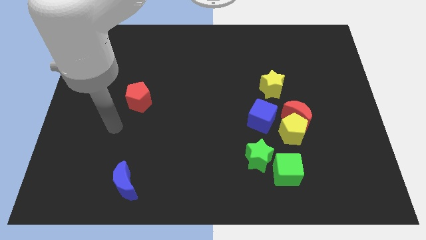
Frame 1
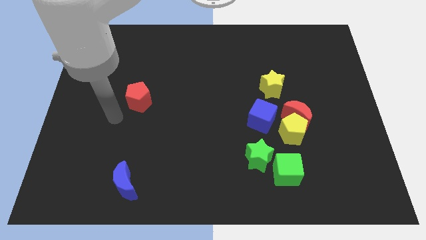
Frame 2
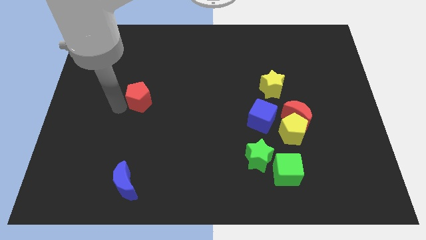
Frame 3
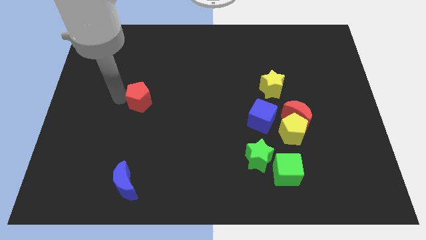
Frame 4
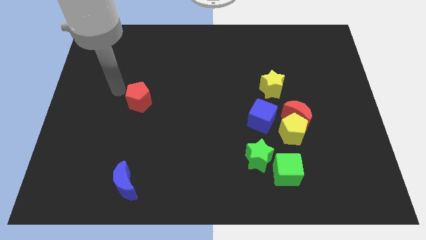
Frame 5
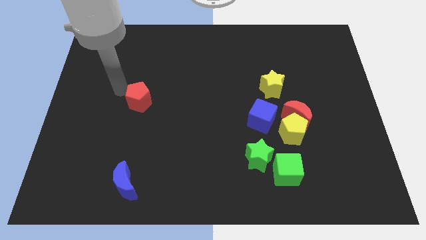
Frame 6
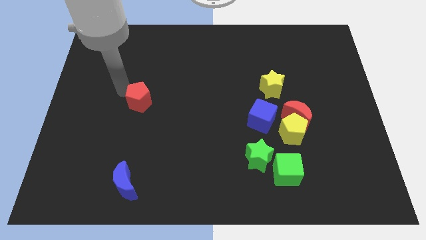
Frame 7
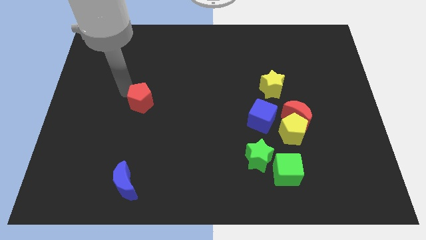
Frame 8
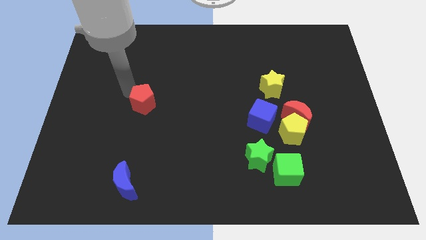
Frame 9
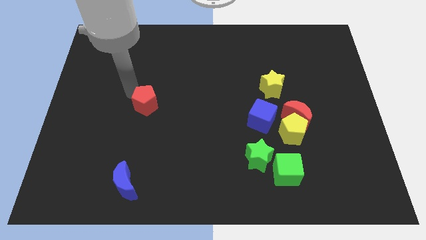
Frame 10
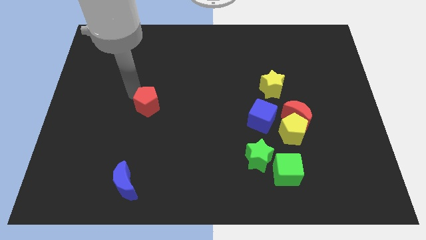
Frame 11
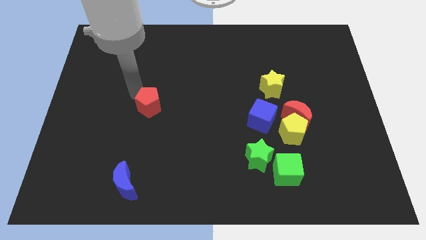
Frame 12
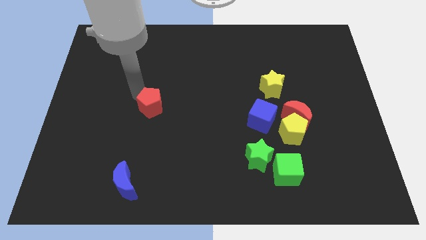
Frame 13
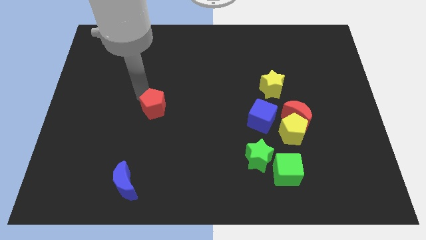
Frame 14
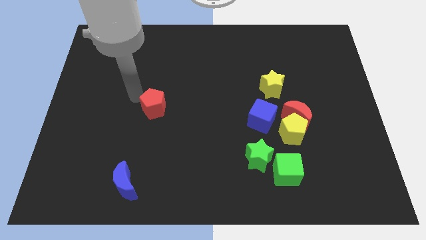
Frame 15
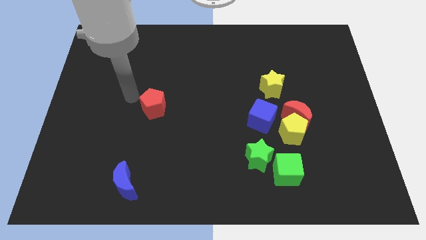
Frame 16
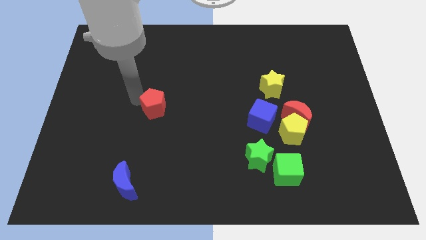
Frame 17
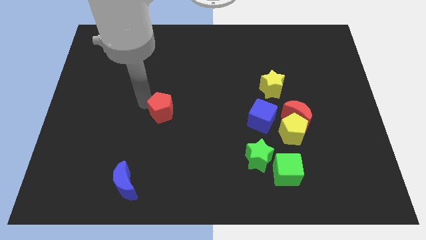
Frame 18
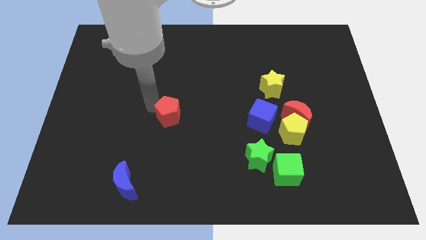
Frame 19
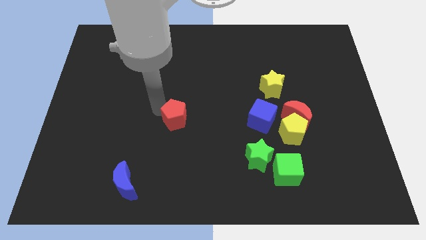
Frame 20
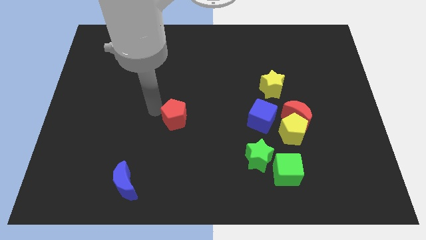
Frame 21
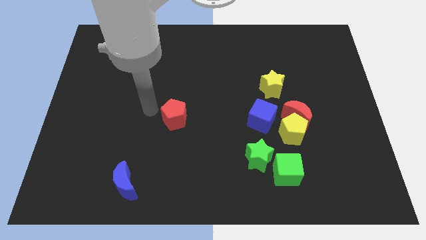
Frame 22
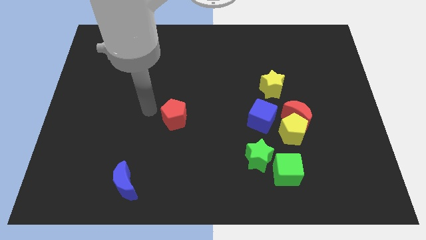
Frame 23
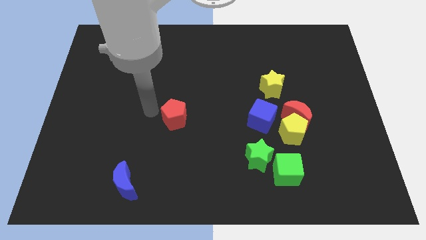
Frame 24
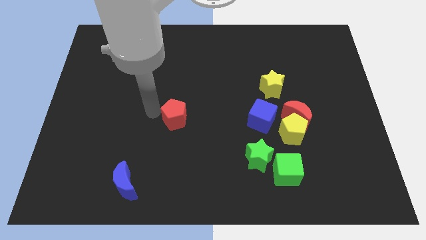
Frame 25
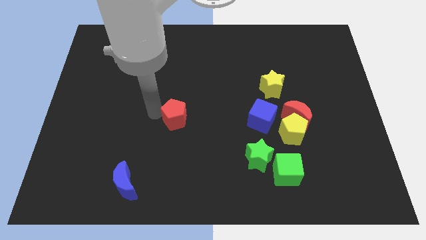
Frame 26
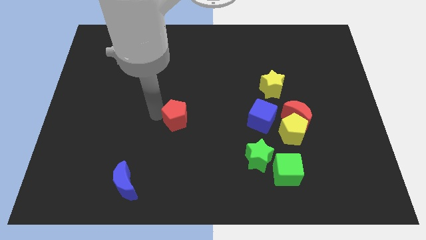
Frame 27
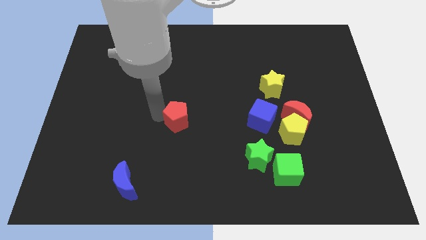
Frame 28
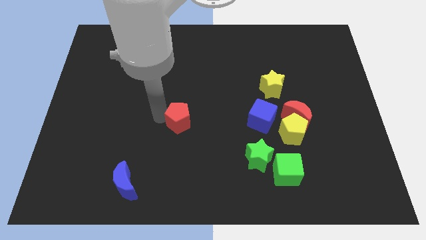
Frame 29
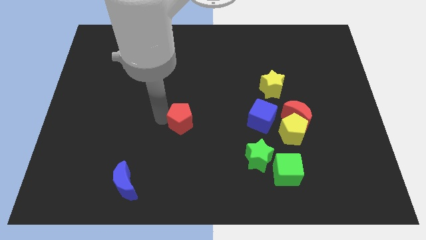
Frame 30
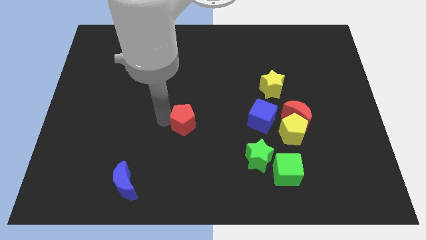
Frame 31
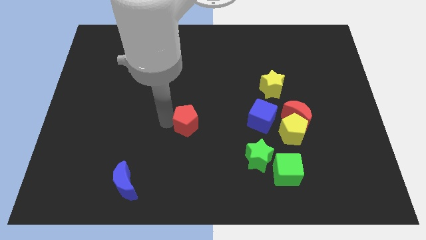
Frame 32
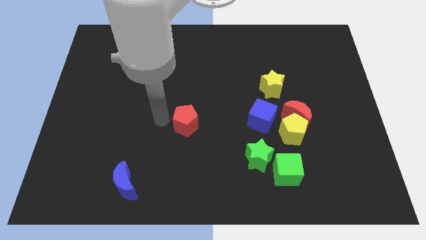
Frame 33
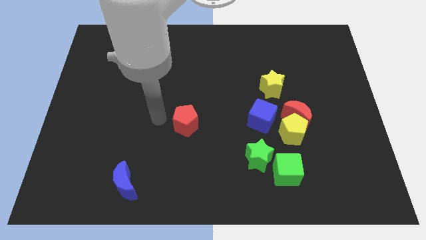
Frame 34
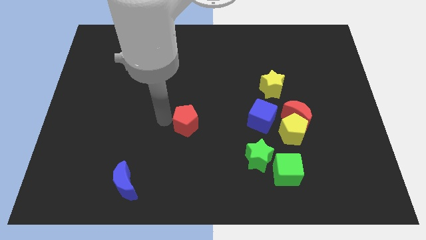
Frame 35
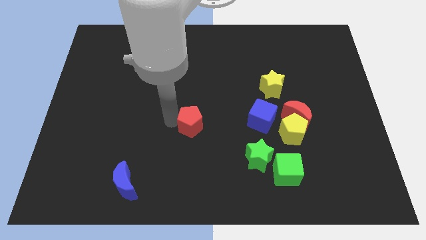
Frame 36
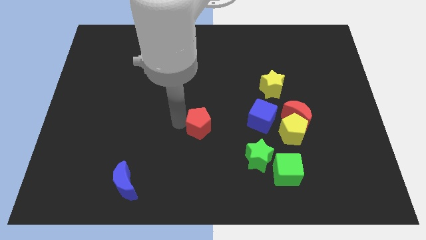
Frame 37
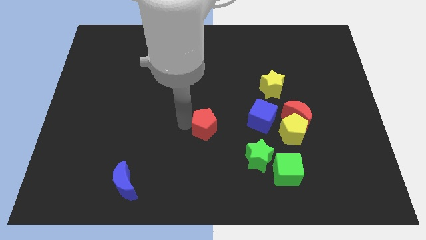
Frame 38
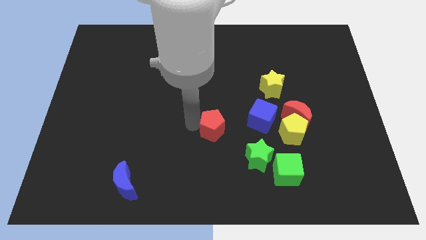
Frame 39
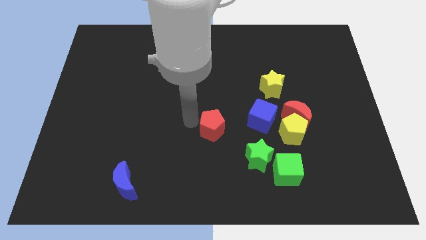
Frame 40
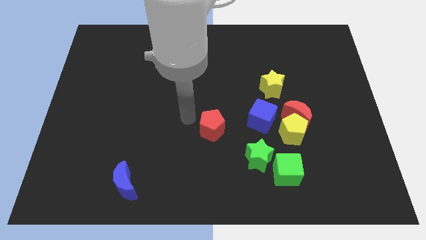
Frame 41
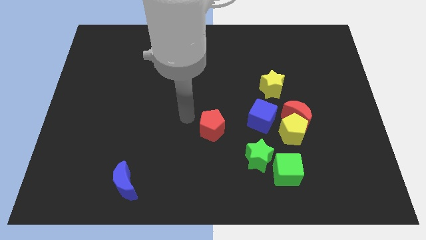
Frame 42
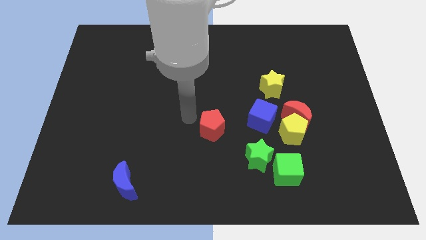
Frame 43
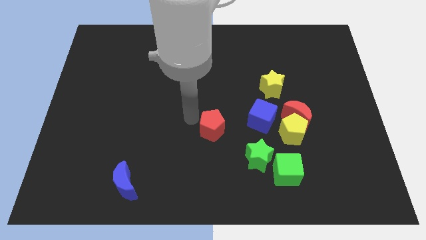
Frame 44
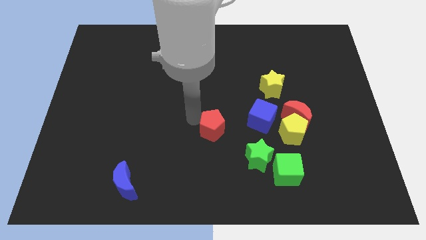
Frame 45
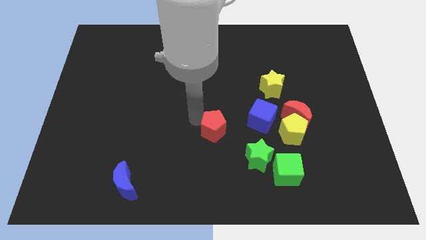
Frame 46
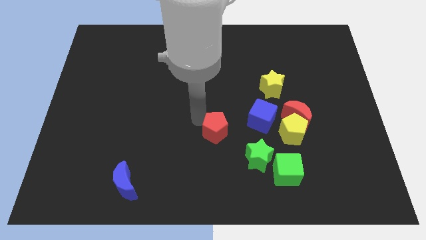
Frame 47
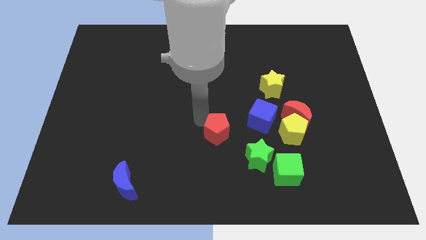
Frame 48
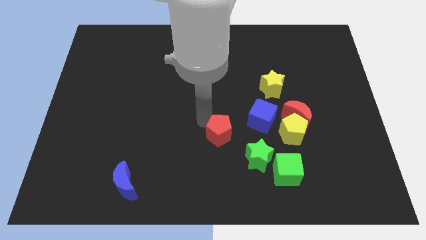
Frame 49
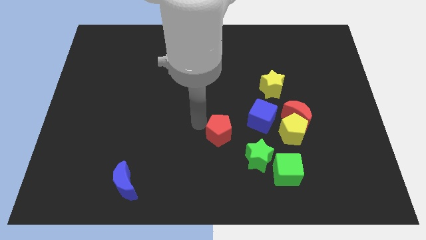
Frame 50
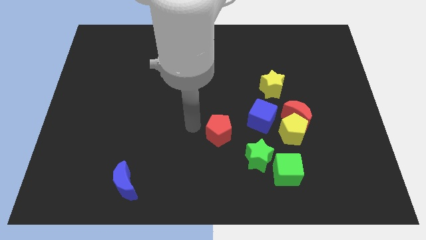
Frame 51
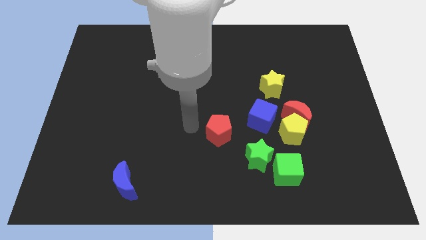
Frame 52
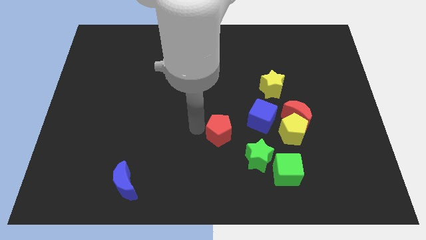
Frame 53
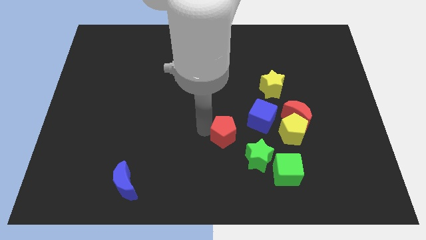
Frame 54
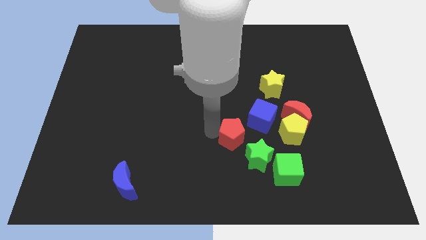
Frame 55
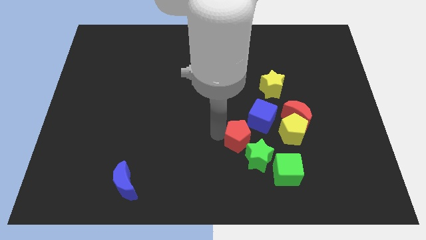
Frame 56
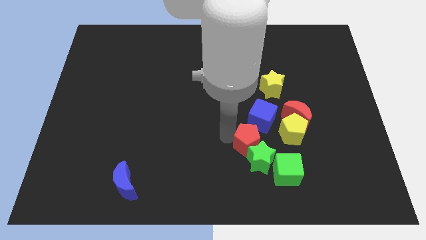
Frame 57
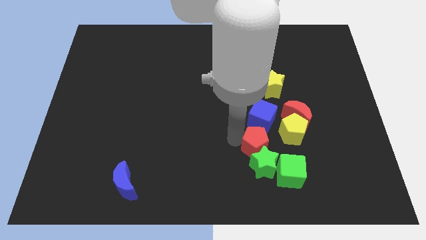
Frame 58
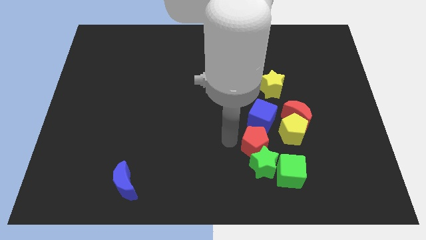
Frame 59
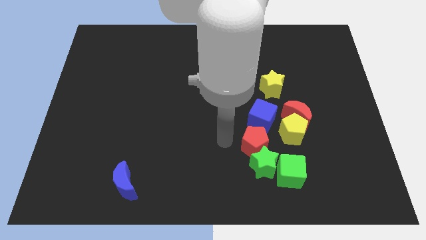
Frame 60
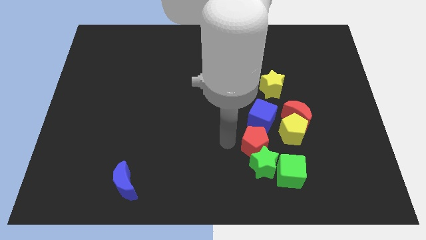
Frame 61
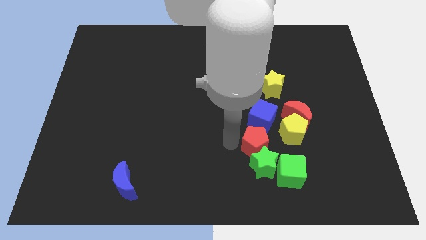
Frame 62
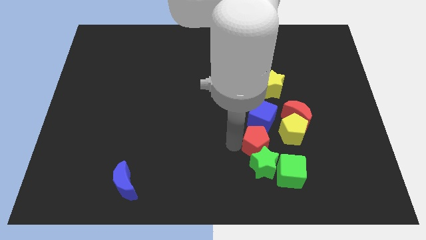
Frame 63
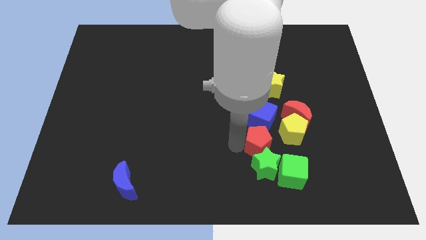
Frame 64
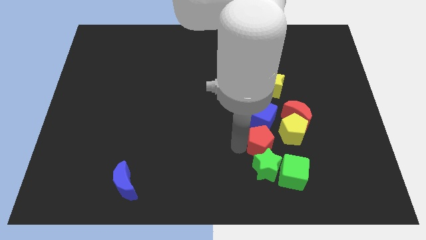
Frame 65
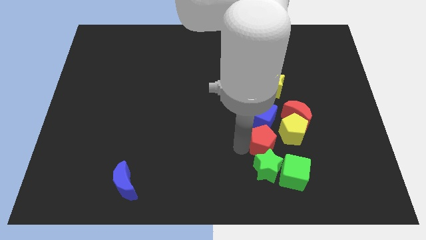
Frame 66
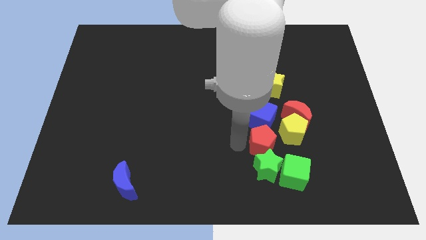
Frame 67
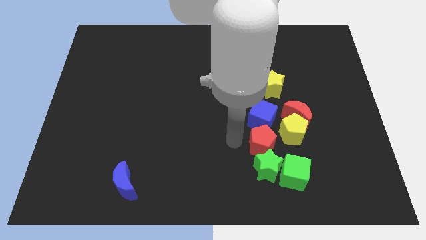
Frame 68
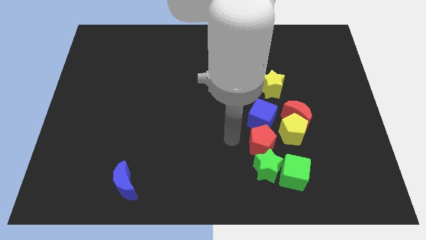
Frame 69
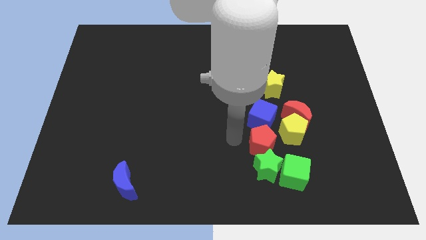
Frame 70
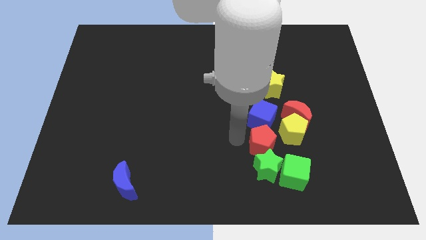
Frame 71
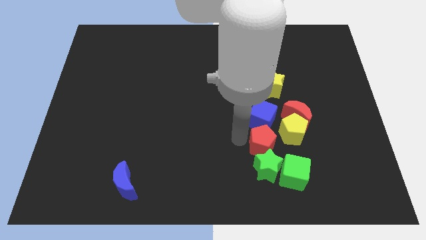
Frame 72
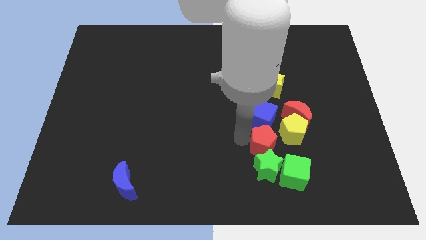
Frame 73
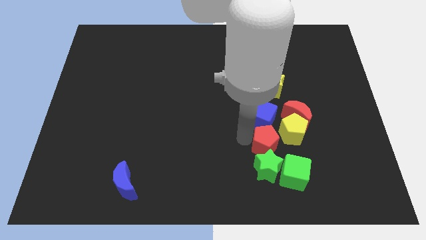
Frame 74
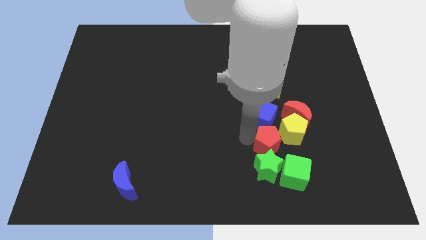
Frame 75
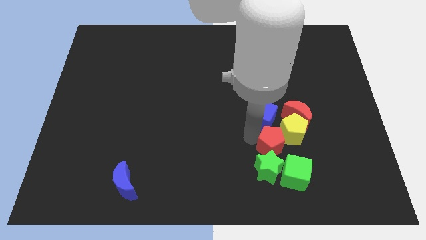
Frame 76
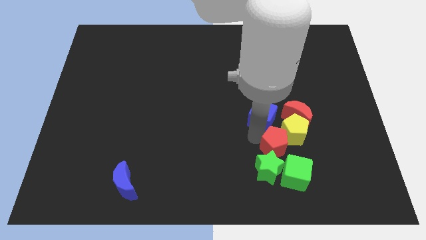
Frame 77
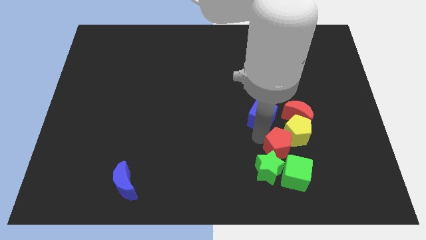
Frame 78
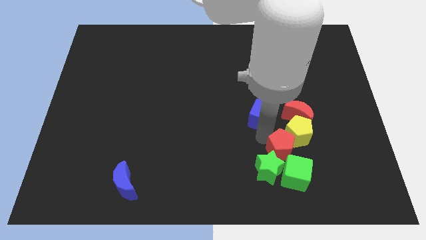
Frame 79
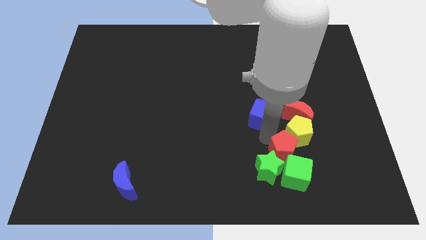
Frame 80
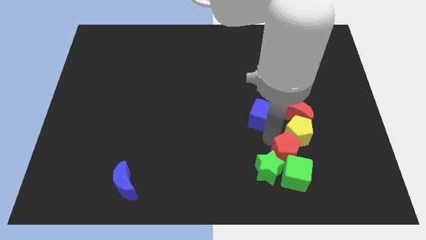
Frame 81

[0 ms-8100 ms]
push the red pentagon to the green cube
